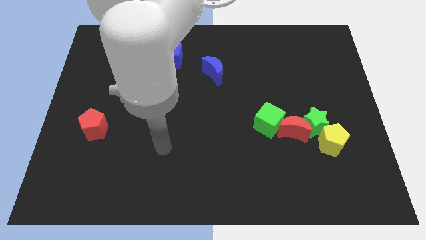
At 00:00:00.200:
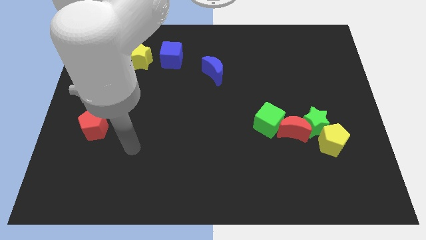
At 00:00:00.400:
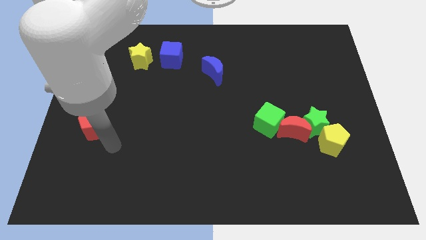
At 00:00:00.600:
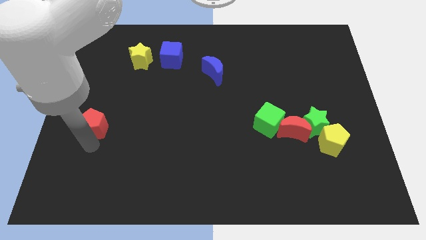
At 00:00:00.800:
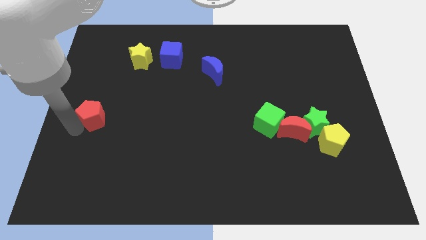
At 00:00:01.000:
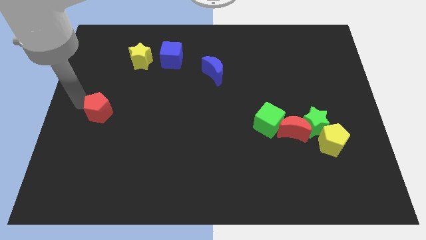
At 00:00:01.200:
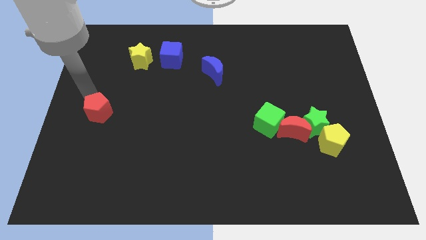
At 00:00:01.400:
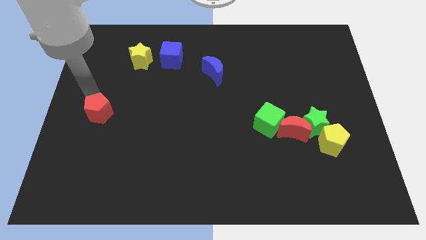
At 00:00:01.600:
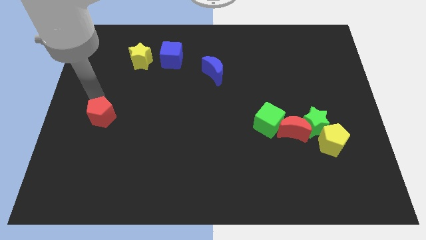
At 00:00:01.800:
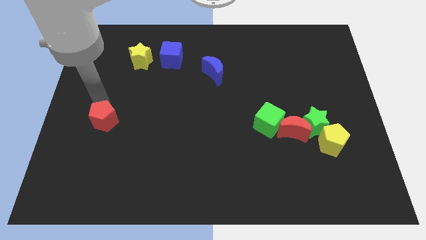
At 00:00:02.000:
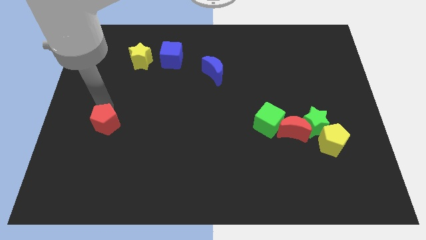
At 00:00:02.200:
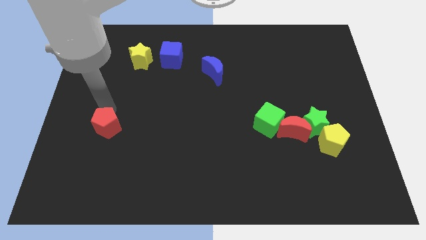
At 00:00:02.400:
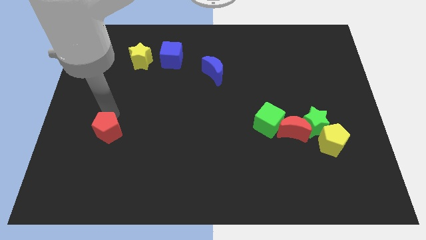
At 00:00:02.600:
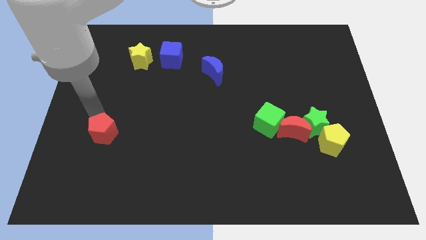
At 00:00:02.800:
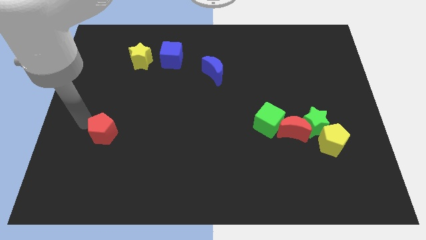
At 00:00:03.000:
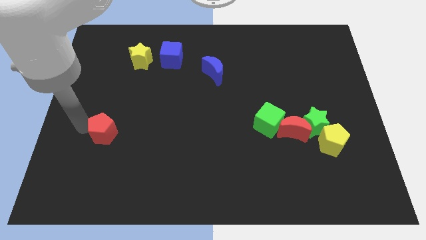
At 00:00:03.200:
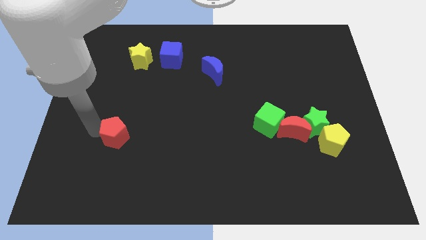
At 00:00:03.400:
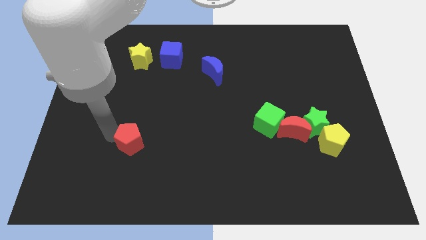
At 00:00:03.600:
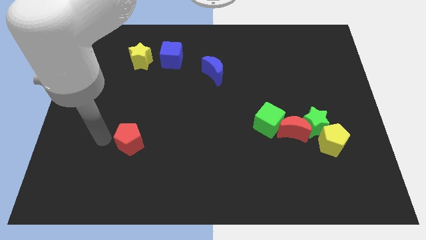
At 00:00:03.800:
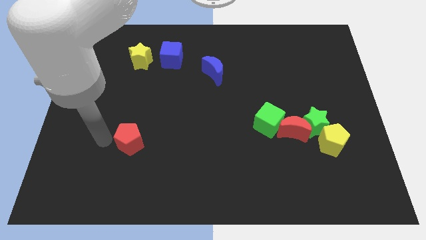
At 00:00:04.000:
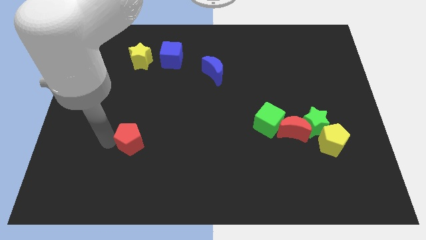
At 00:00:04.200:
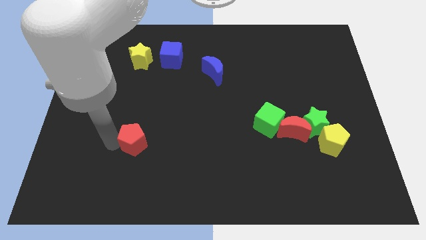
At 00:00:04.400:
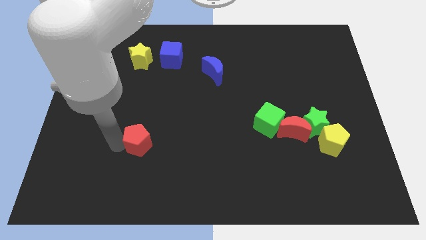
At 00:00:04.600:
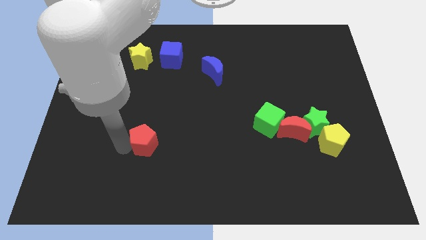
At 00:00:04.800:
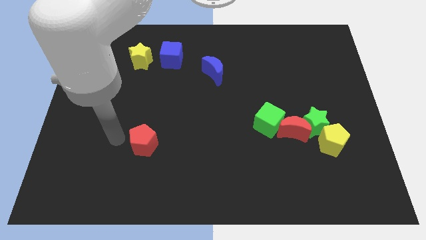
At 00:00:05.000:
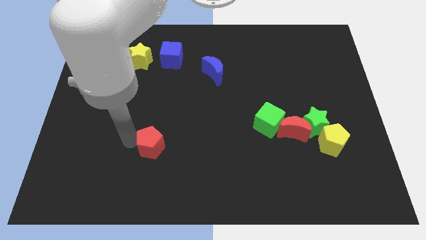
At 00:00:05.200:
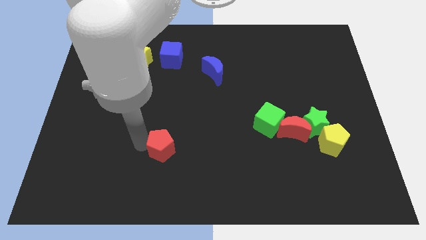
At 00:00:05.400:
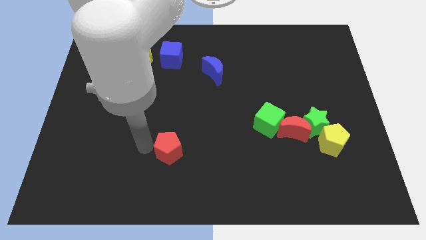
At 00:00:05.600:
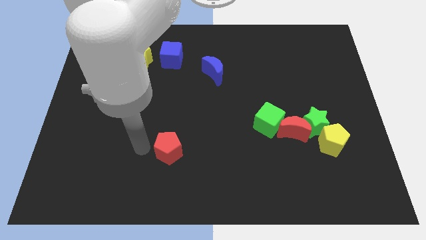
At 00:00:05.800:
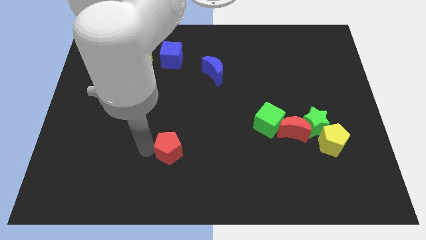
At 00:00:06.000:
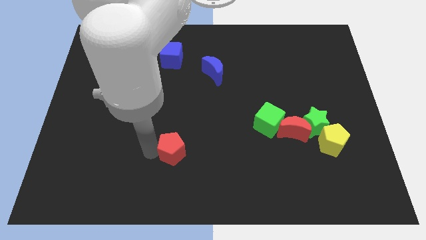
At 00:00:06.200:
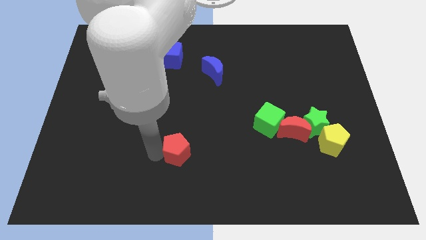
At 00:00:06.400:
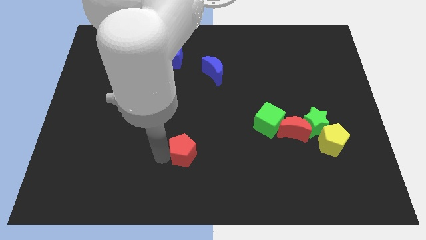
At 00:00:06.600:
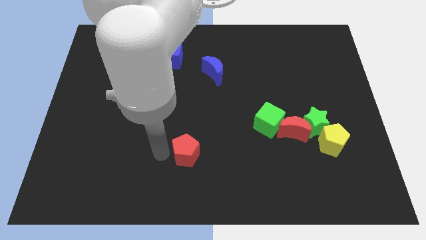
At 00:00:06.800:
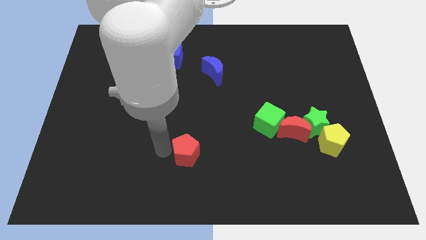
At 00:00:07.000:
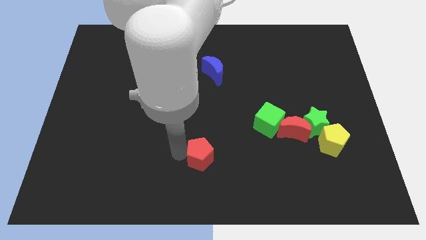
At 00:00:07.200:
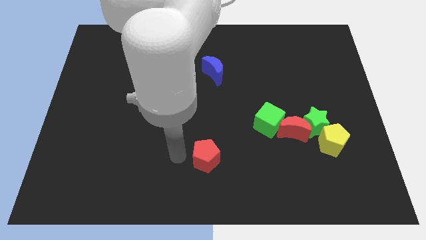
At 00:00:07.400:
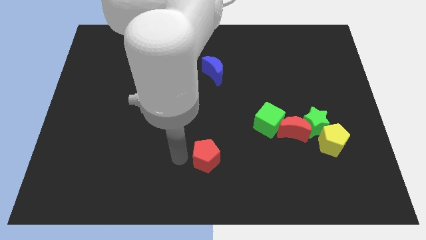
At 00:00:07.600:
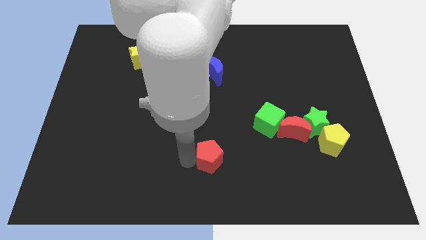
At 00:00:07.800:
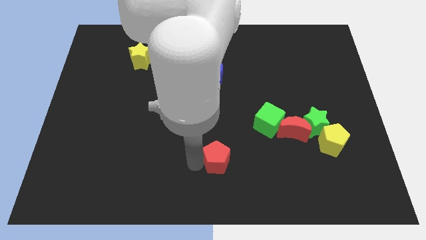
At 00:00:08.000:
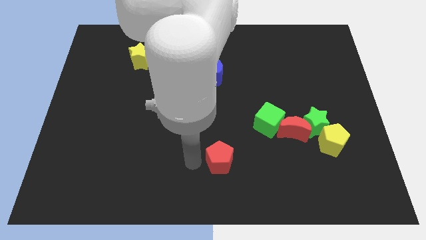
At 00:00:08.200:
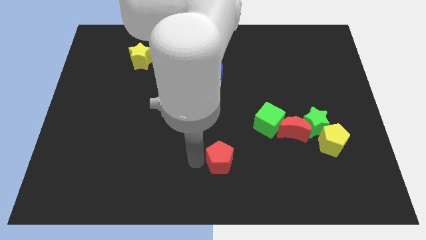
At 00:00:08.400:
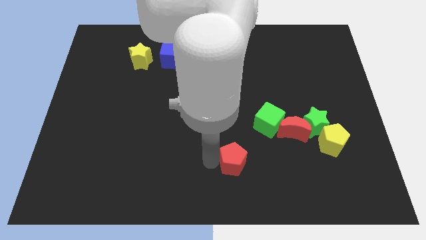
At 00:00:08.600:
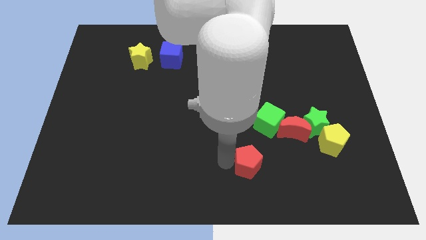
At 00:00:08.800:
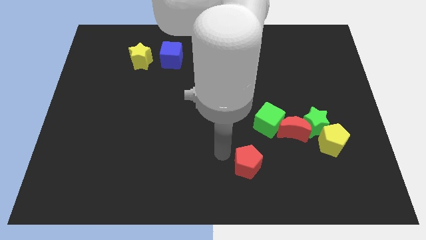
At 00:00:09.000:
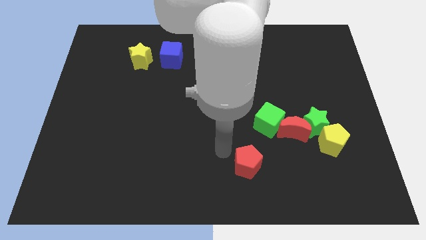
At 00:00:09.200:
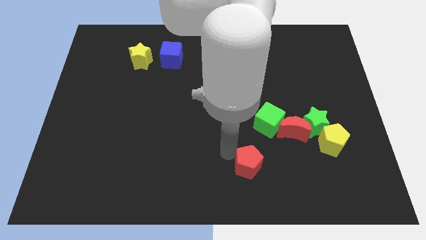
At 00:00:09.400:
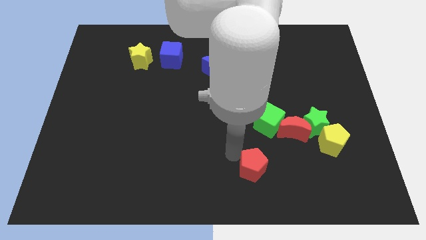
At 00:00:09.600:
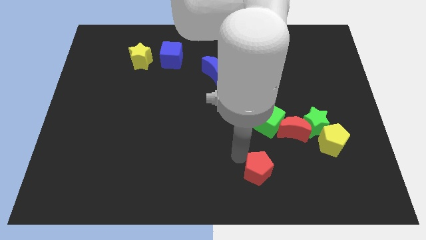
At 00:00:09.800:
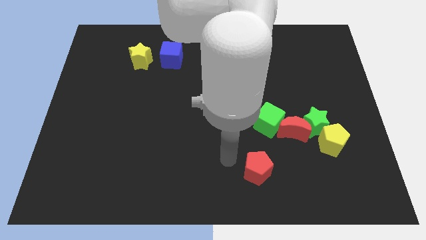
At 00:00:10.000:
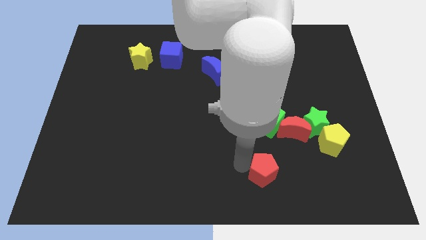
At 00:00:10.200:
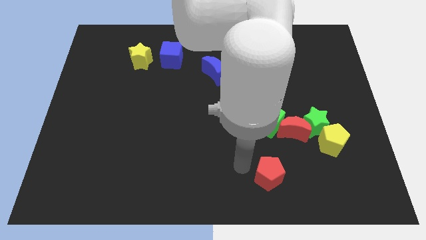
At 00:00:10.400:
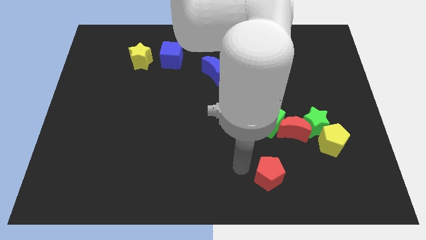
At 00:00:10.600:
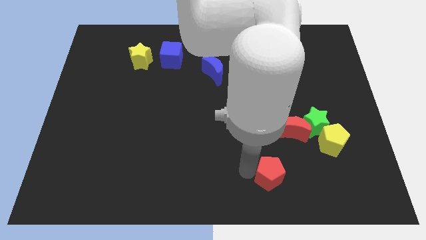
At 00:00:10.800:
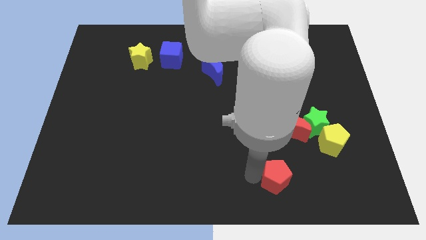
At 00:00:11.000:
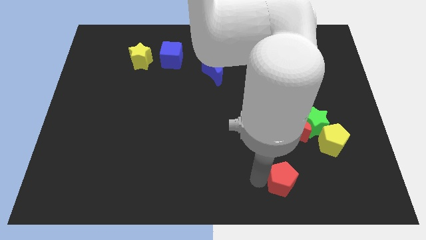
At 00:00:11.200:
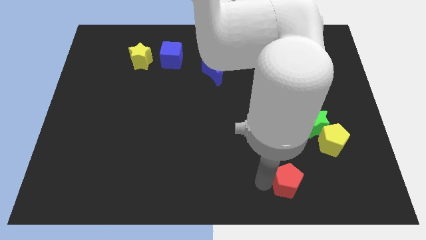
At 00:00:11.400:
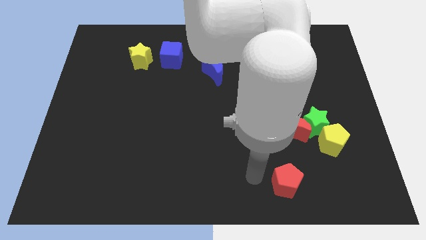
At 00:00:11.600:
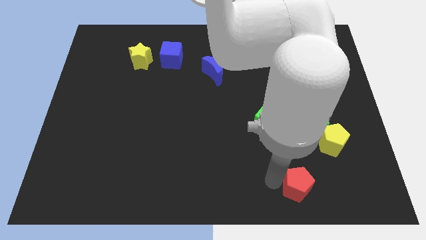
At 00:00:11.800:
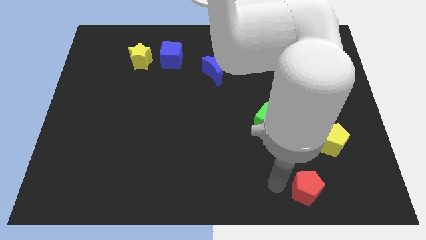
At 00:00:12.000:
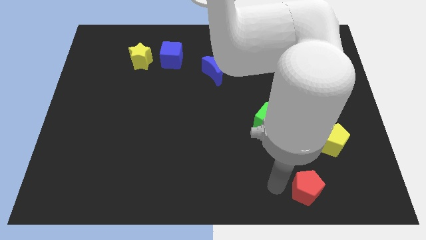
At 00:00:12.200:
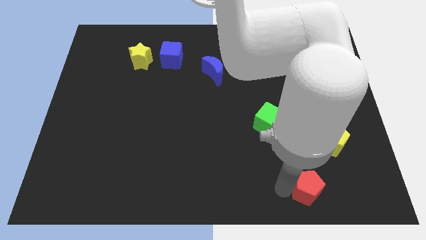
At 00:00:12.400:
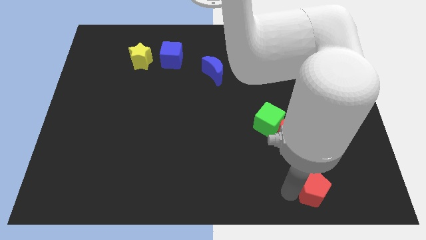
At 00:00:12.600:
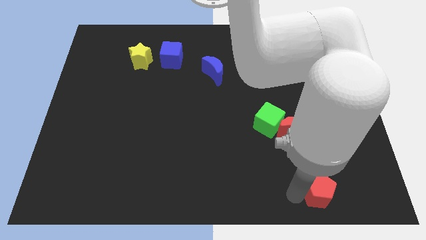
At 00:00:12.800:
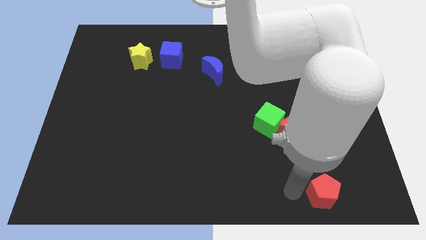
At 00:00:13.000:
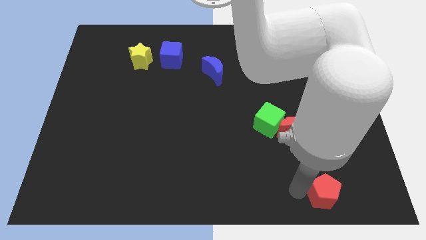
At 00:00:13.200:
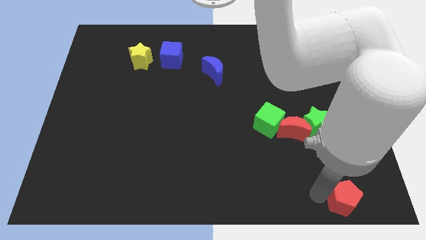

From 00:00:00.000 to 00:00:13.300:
push the red pentagon to the bottom right corner

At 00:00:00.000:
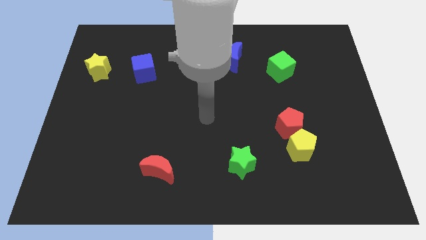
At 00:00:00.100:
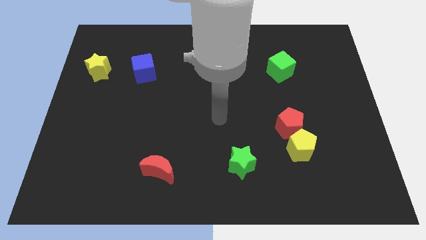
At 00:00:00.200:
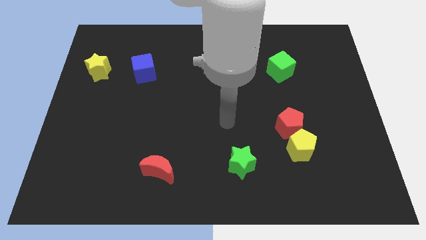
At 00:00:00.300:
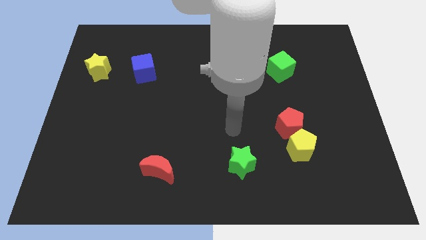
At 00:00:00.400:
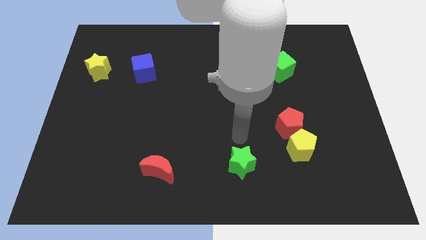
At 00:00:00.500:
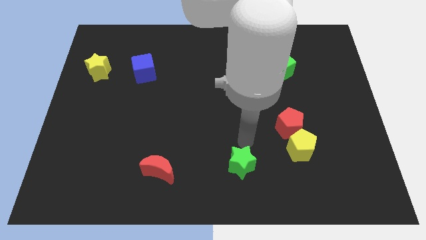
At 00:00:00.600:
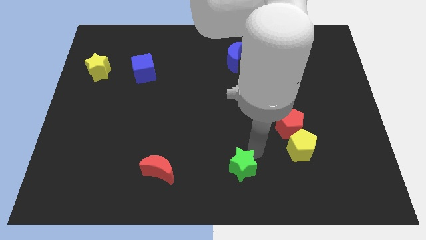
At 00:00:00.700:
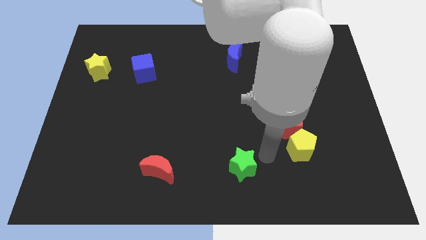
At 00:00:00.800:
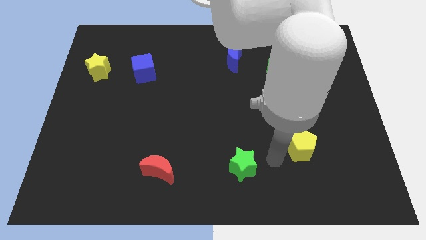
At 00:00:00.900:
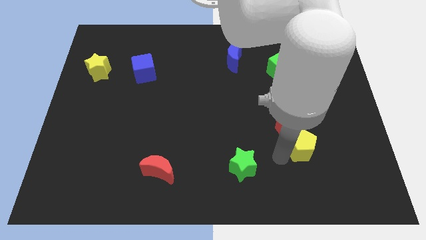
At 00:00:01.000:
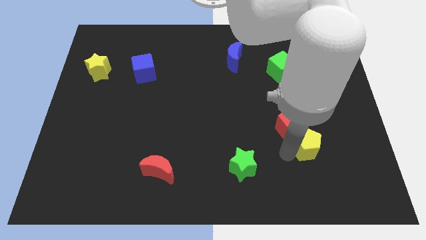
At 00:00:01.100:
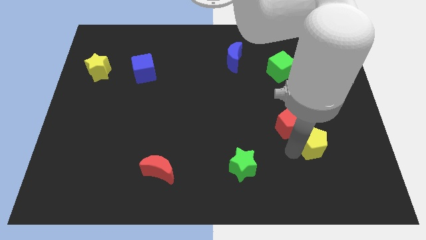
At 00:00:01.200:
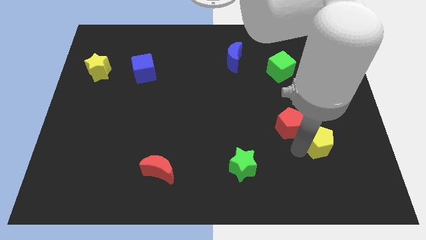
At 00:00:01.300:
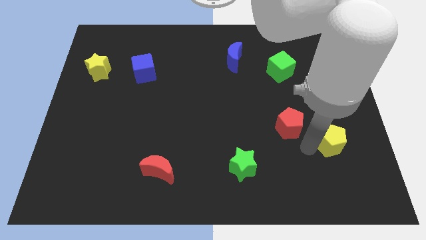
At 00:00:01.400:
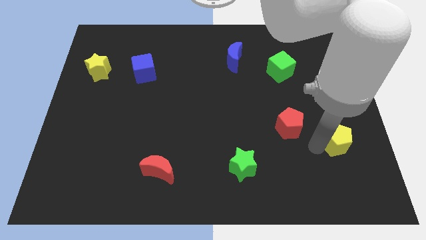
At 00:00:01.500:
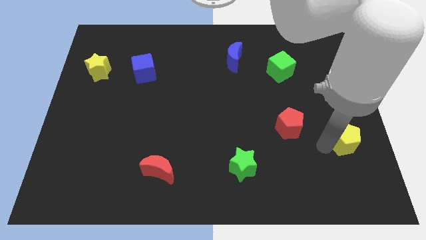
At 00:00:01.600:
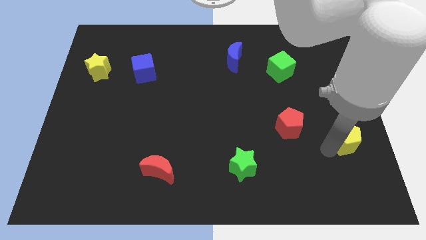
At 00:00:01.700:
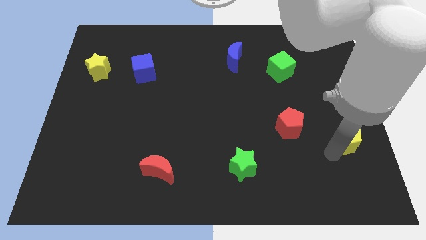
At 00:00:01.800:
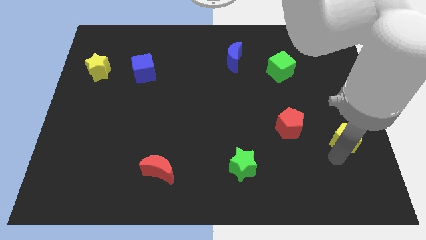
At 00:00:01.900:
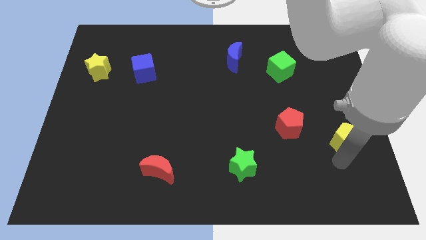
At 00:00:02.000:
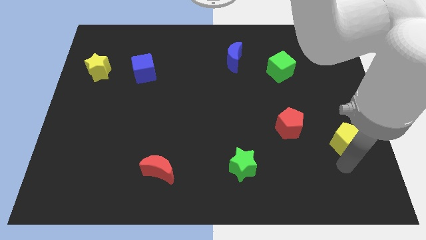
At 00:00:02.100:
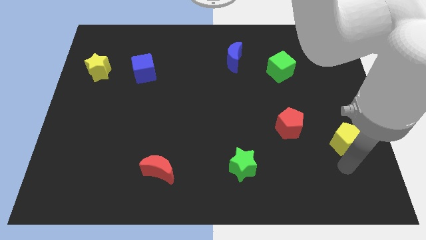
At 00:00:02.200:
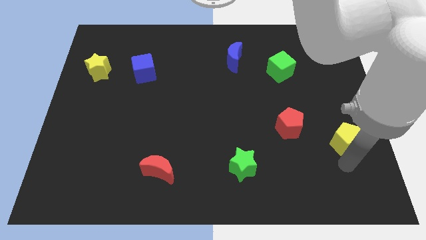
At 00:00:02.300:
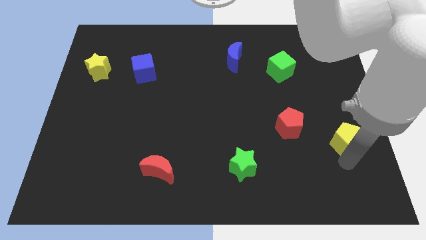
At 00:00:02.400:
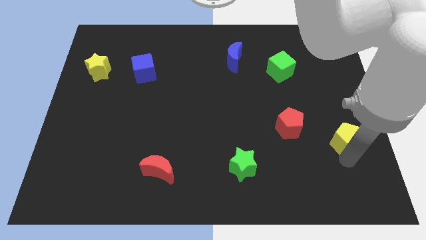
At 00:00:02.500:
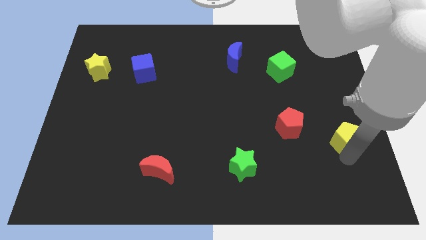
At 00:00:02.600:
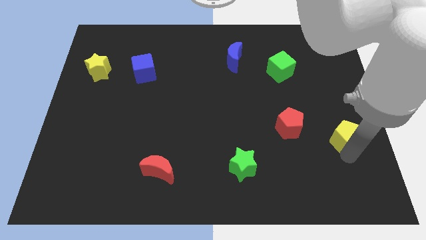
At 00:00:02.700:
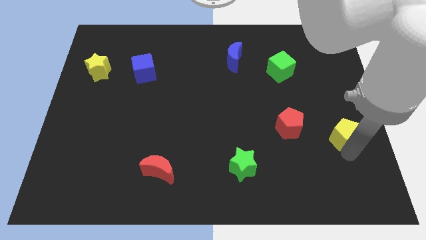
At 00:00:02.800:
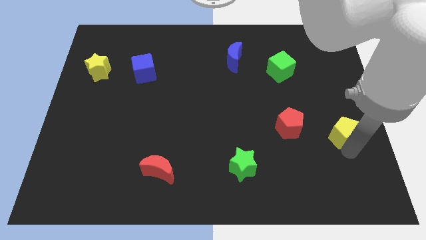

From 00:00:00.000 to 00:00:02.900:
slide the yellow pentagon to the right side of the board
